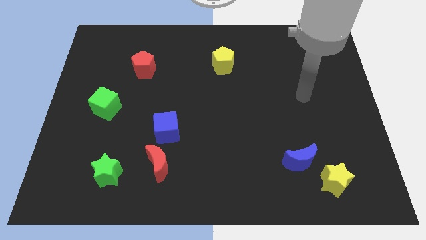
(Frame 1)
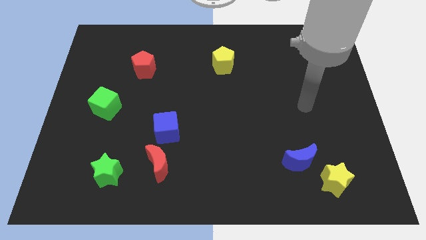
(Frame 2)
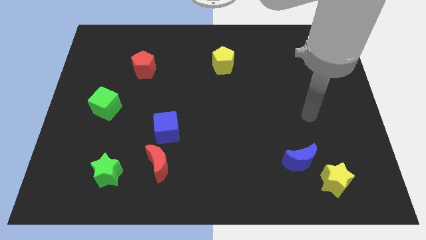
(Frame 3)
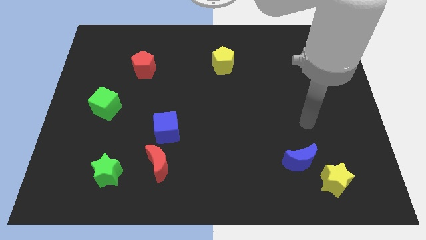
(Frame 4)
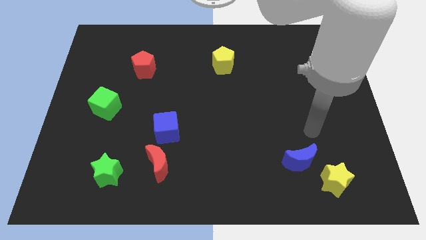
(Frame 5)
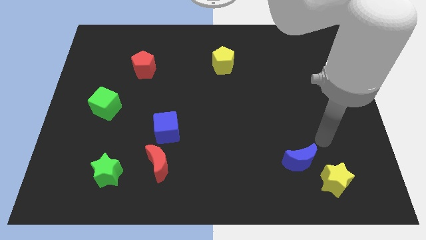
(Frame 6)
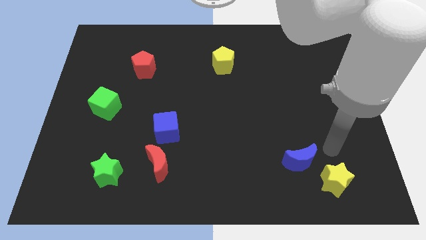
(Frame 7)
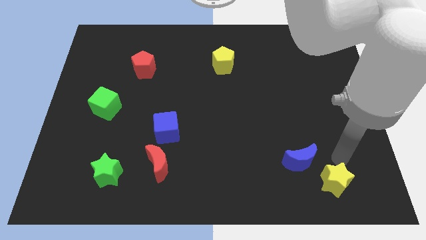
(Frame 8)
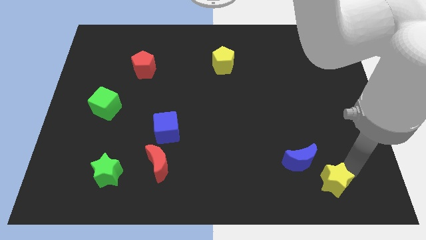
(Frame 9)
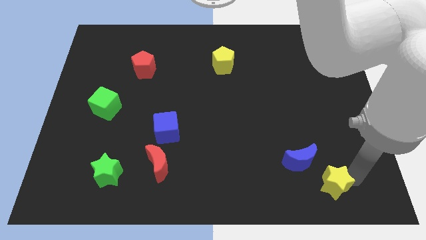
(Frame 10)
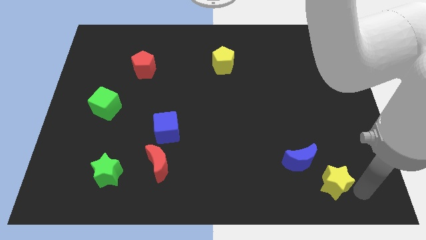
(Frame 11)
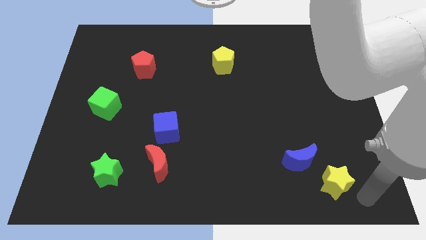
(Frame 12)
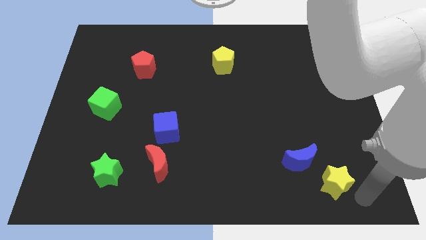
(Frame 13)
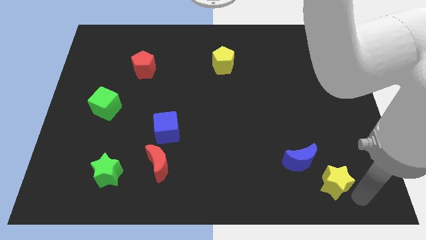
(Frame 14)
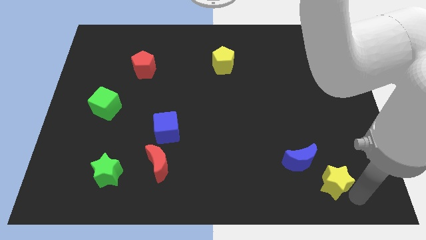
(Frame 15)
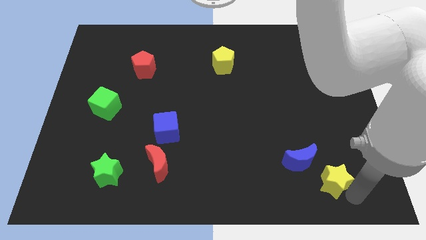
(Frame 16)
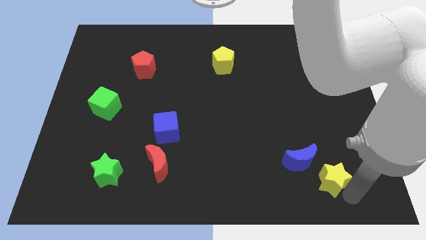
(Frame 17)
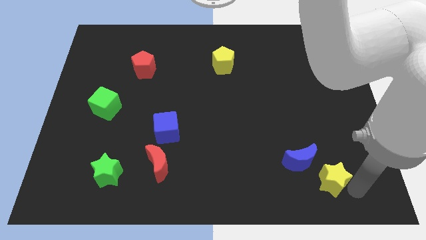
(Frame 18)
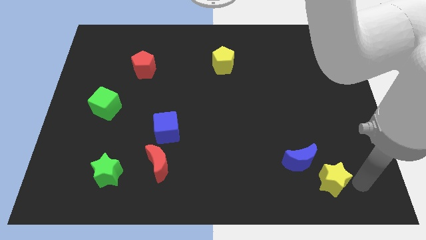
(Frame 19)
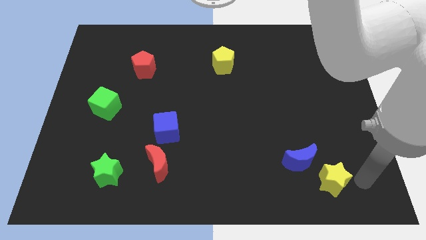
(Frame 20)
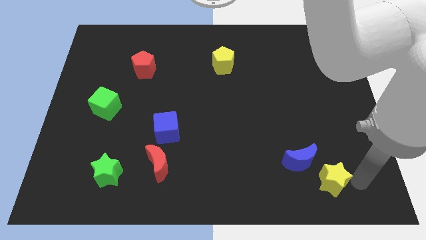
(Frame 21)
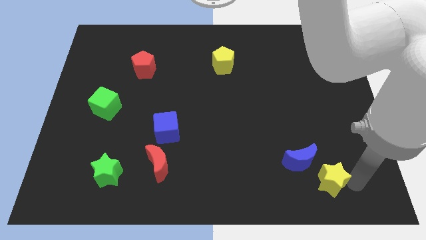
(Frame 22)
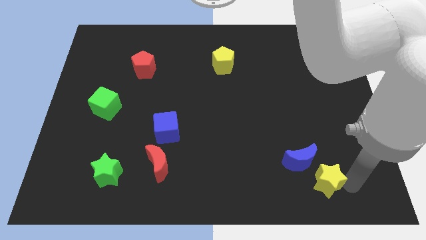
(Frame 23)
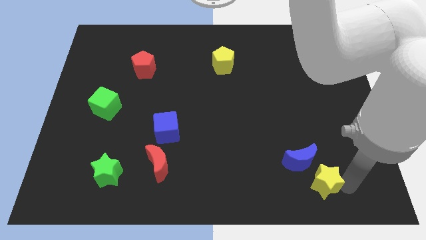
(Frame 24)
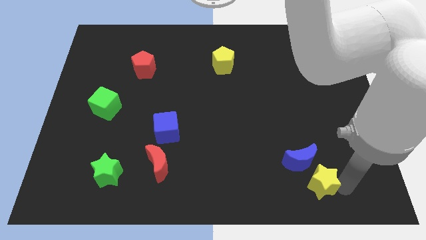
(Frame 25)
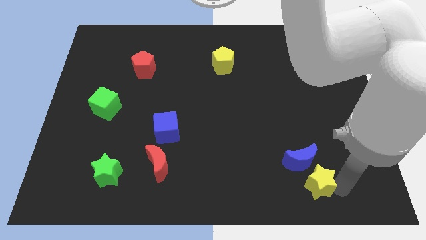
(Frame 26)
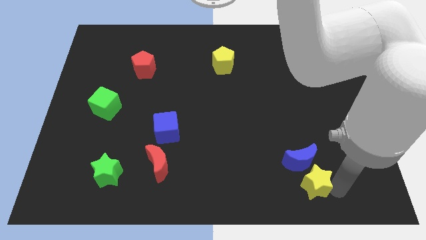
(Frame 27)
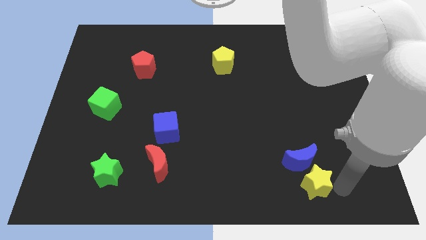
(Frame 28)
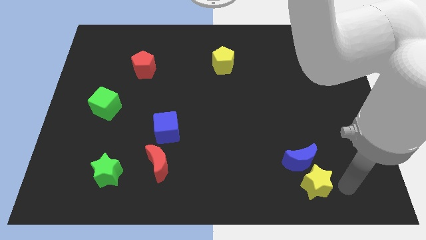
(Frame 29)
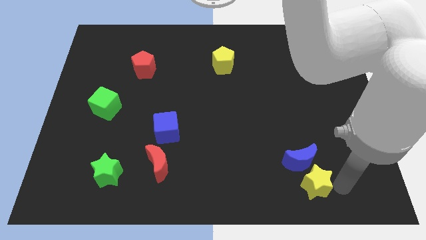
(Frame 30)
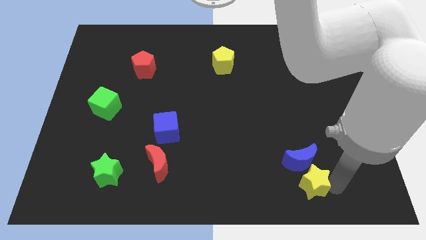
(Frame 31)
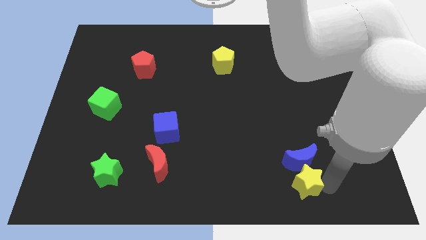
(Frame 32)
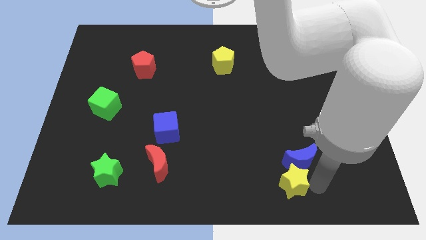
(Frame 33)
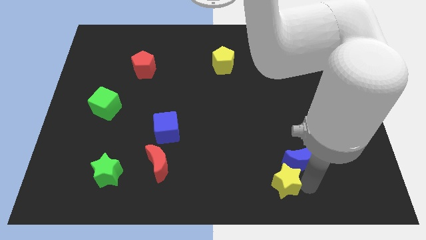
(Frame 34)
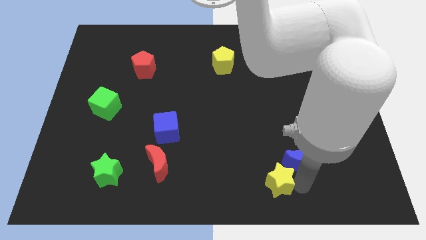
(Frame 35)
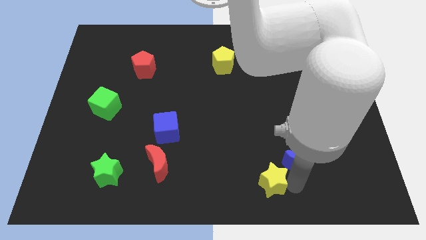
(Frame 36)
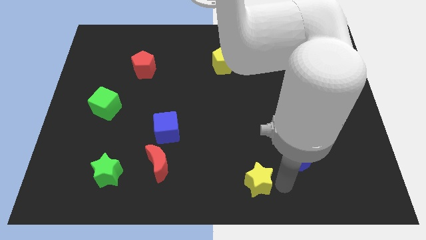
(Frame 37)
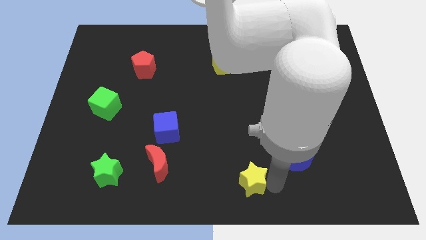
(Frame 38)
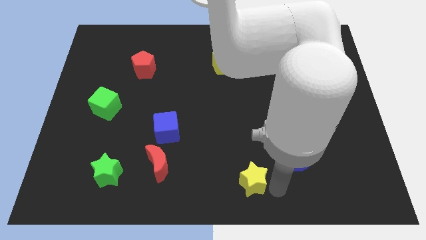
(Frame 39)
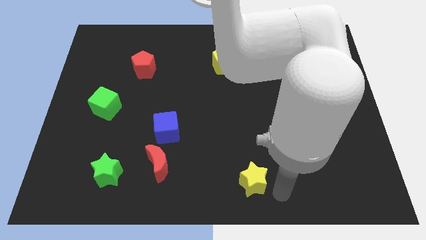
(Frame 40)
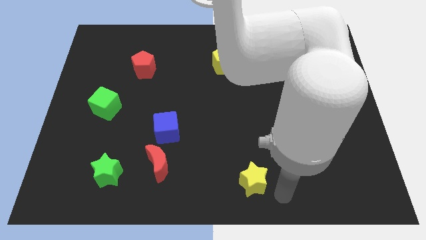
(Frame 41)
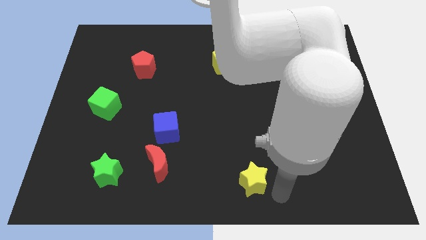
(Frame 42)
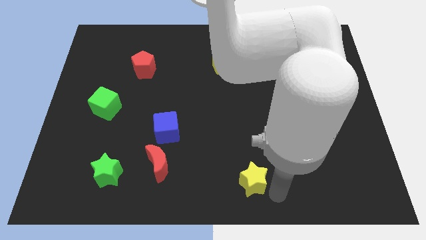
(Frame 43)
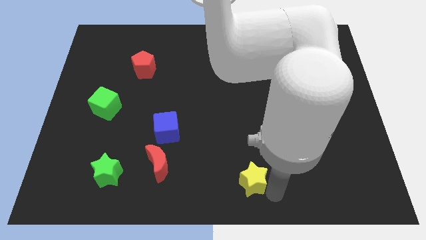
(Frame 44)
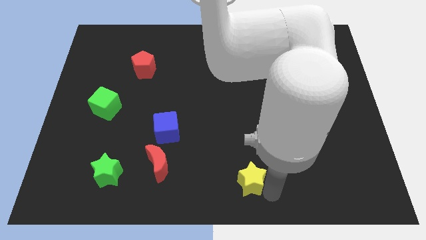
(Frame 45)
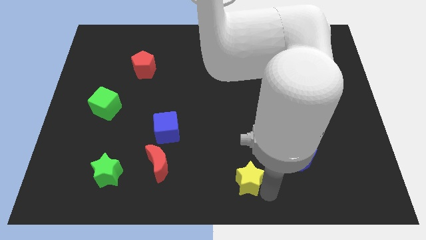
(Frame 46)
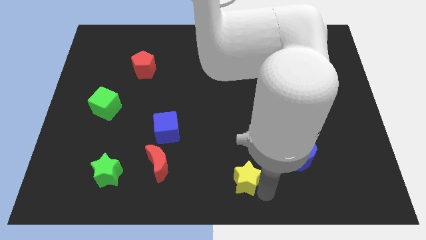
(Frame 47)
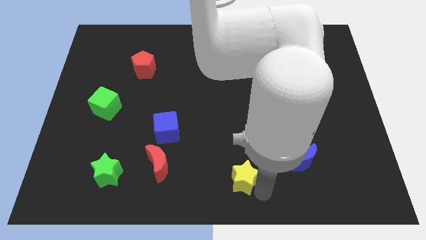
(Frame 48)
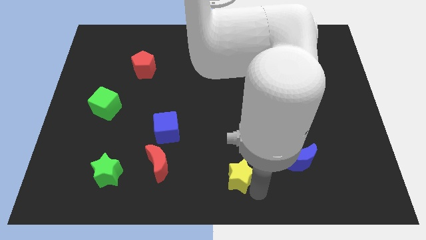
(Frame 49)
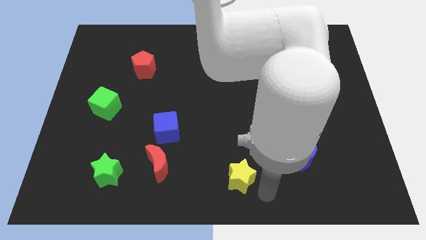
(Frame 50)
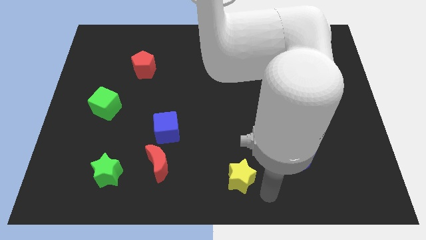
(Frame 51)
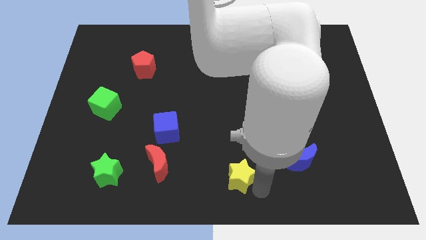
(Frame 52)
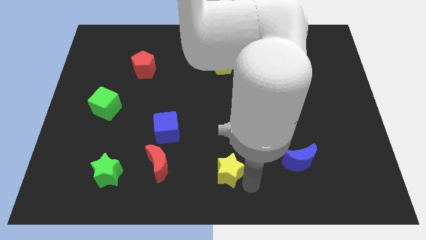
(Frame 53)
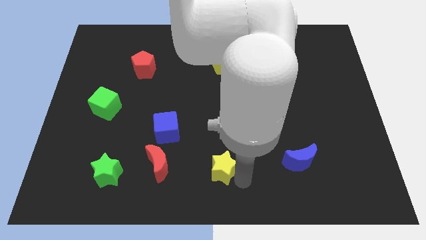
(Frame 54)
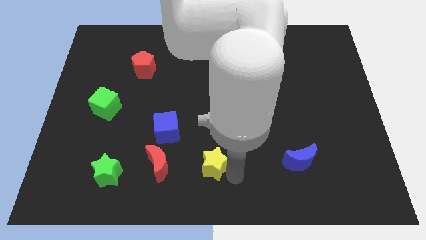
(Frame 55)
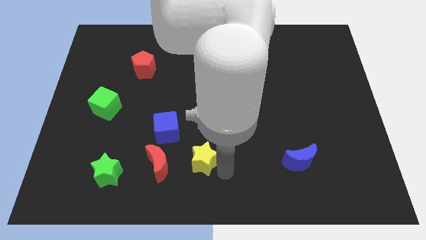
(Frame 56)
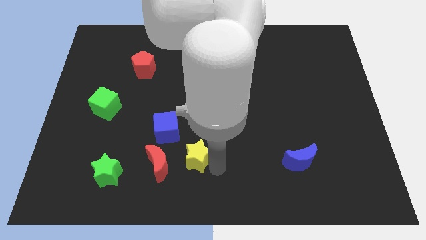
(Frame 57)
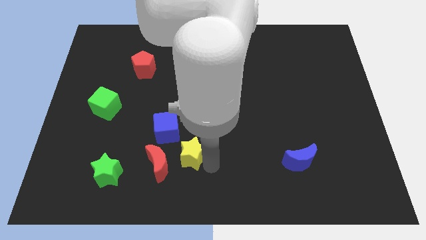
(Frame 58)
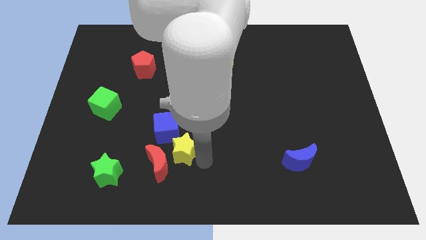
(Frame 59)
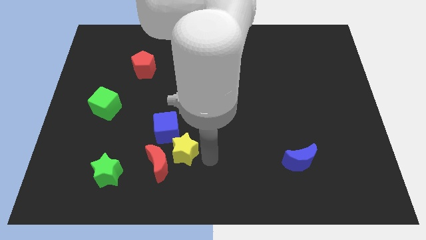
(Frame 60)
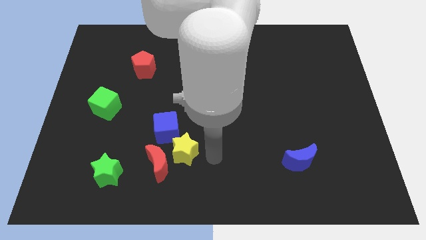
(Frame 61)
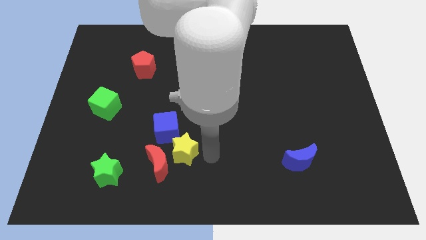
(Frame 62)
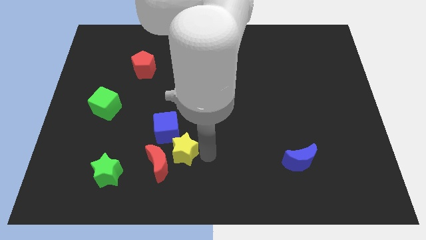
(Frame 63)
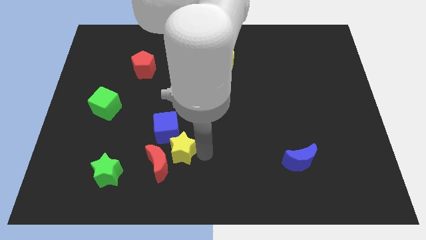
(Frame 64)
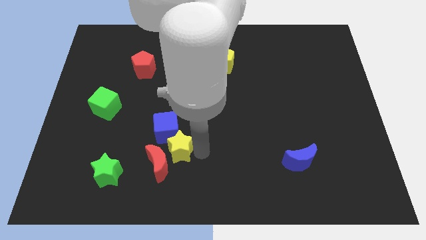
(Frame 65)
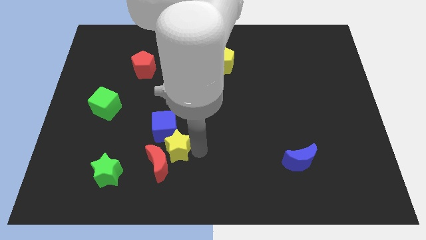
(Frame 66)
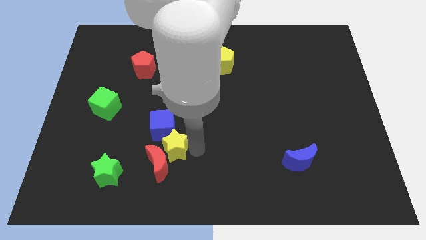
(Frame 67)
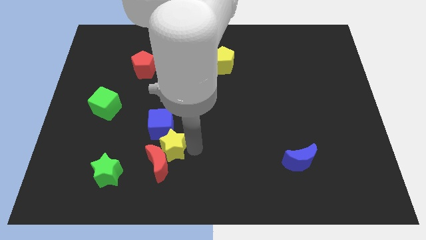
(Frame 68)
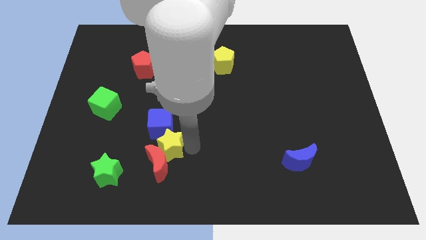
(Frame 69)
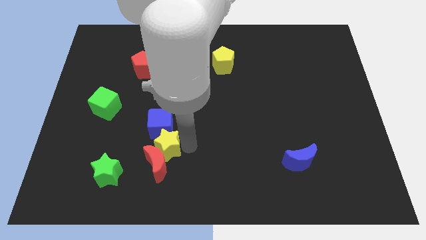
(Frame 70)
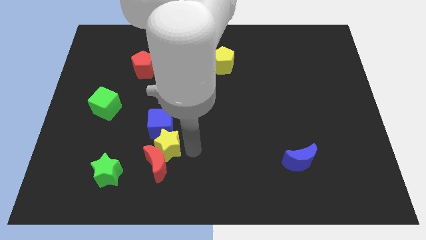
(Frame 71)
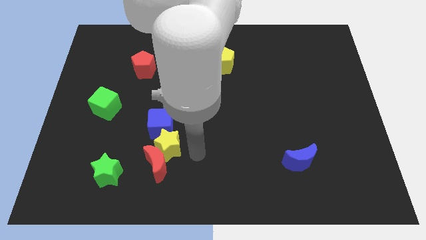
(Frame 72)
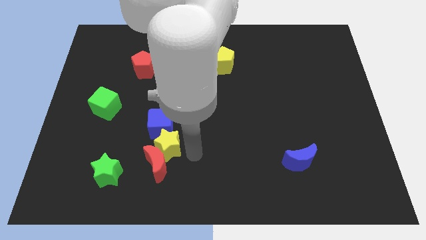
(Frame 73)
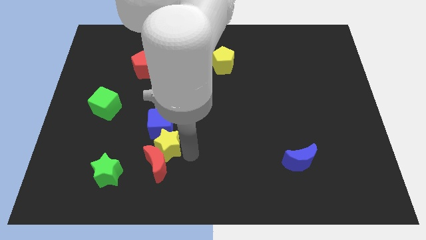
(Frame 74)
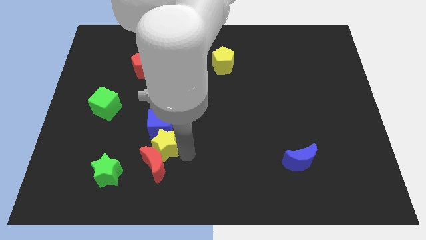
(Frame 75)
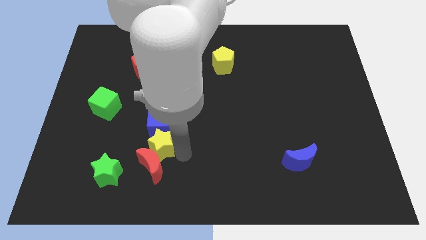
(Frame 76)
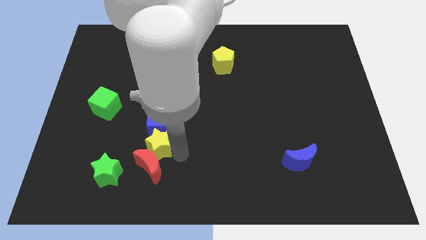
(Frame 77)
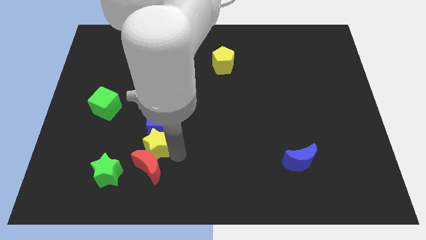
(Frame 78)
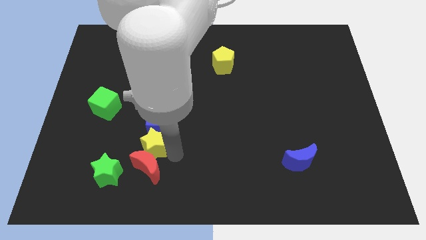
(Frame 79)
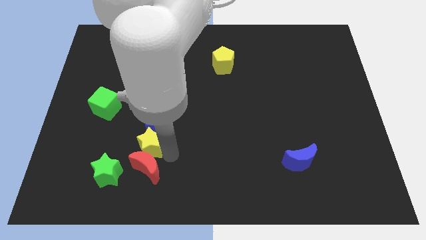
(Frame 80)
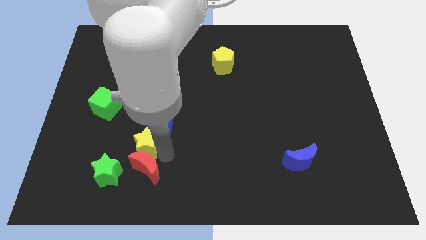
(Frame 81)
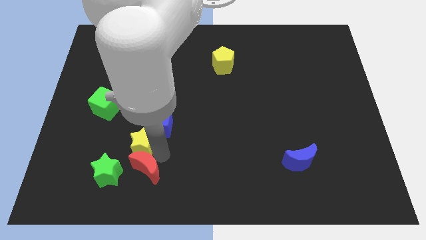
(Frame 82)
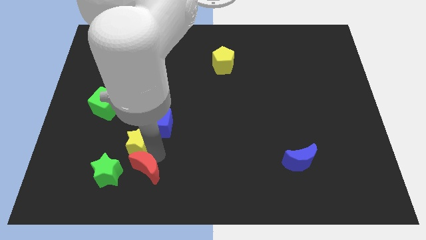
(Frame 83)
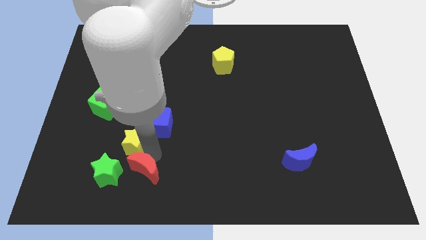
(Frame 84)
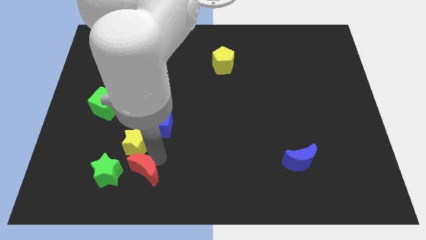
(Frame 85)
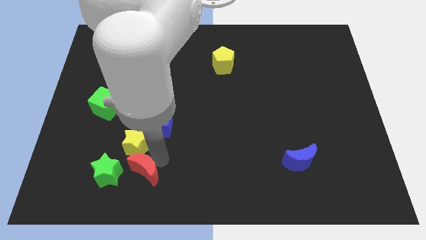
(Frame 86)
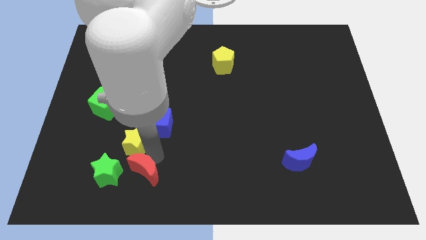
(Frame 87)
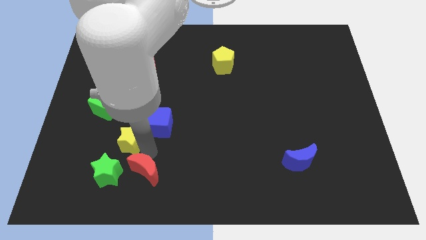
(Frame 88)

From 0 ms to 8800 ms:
push the yellow star to the top of the green star
